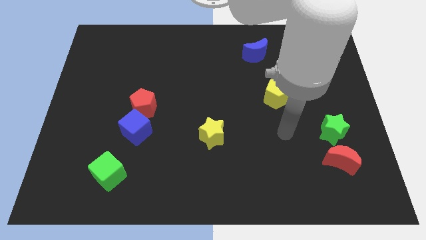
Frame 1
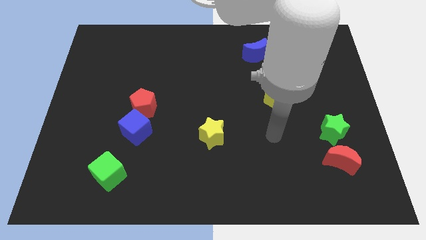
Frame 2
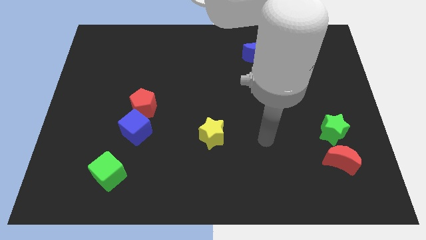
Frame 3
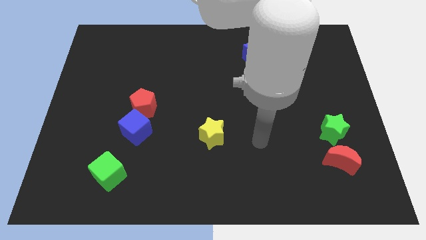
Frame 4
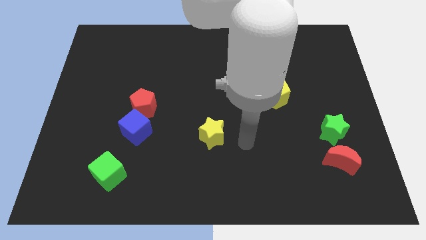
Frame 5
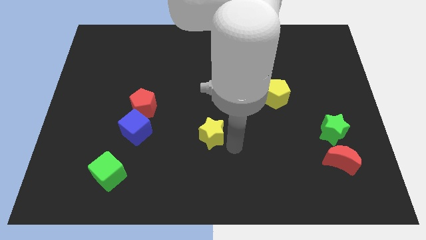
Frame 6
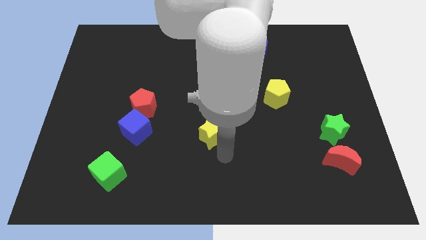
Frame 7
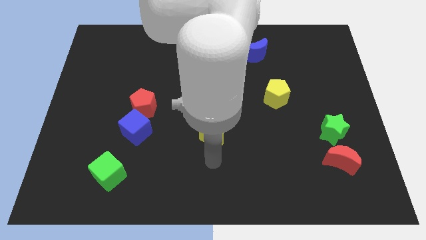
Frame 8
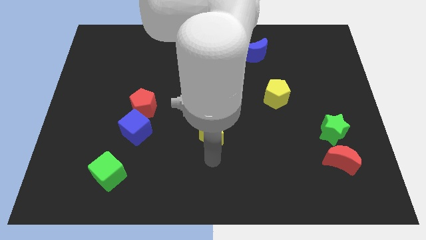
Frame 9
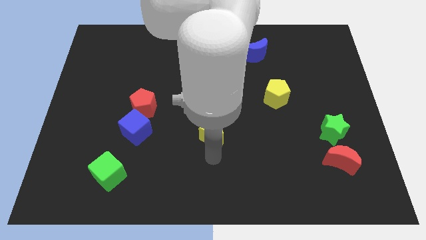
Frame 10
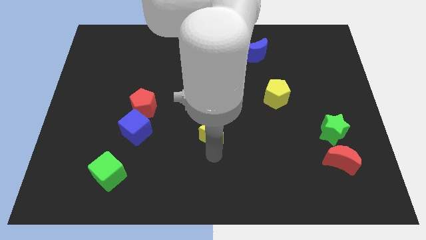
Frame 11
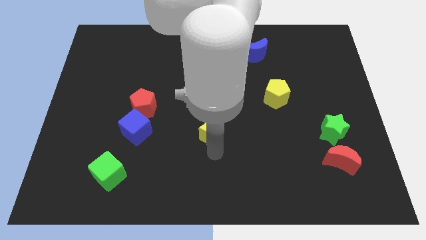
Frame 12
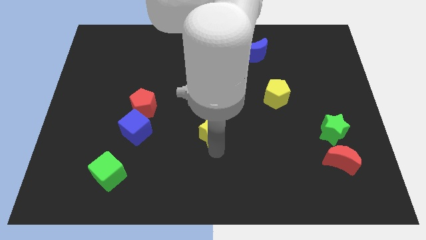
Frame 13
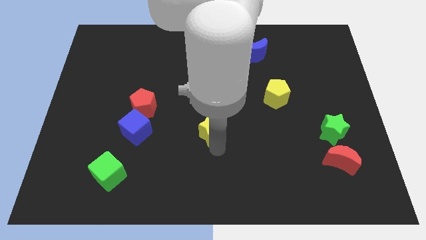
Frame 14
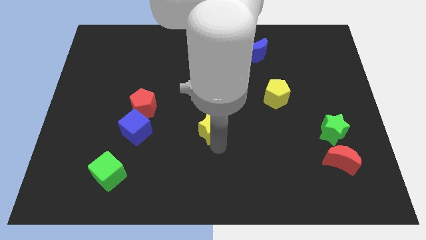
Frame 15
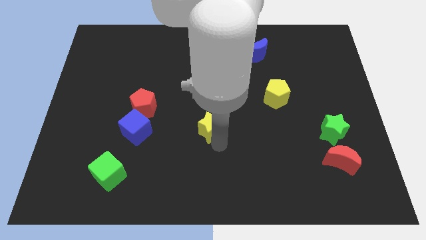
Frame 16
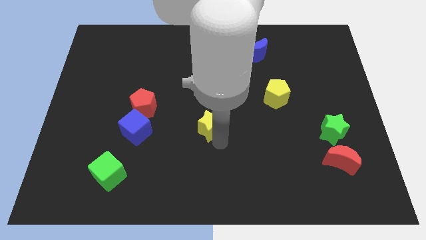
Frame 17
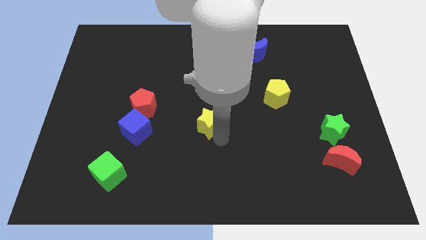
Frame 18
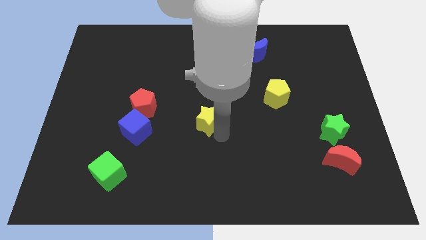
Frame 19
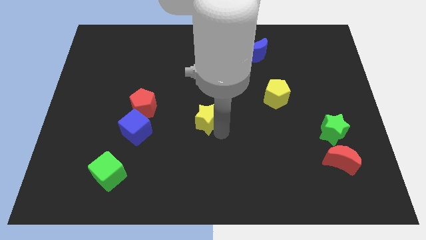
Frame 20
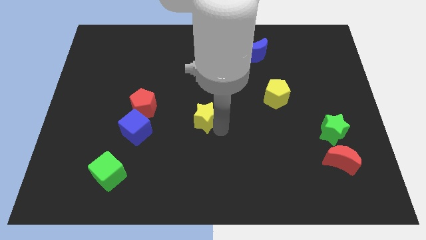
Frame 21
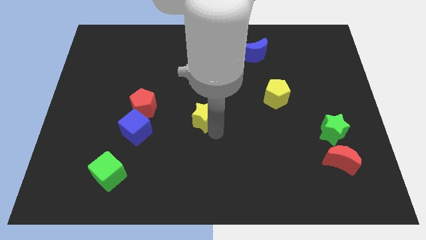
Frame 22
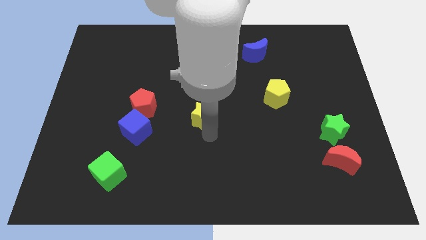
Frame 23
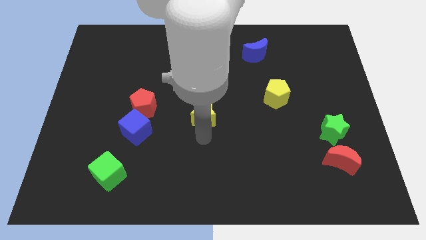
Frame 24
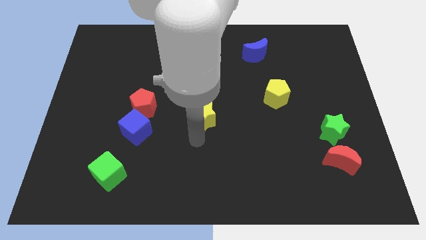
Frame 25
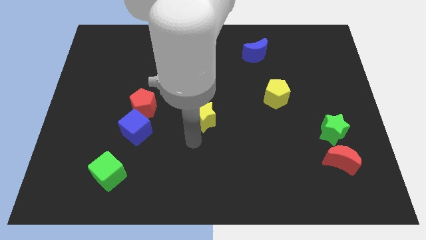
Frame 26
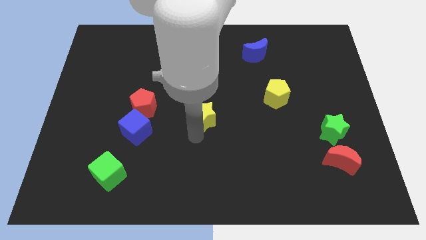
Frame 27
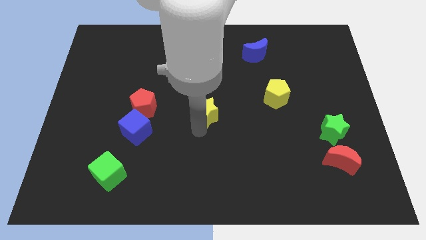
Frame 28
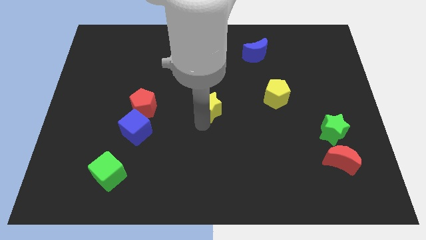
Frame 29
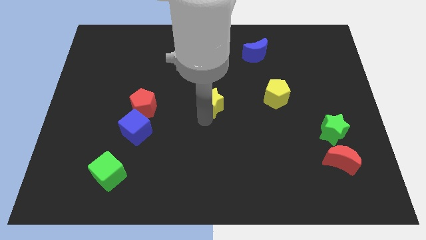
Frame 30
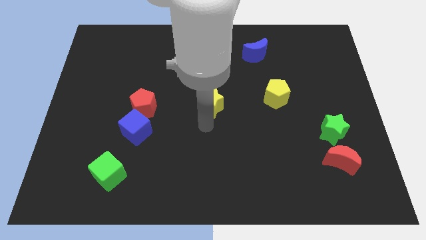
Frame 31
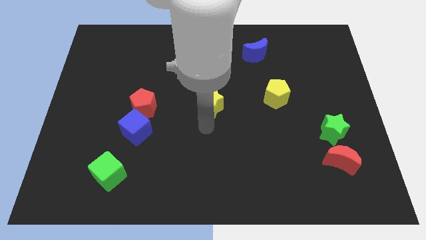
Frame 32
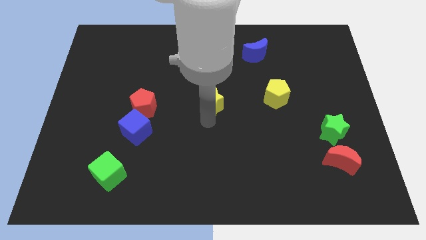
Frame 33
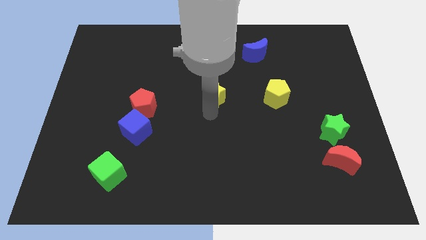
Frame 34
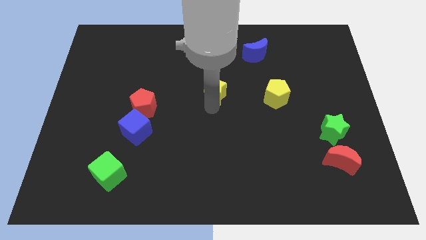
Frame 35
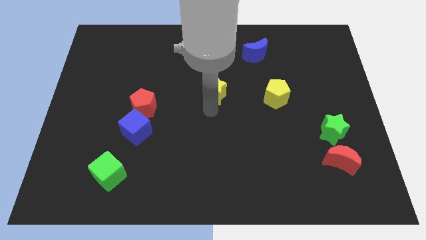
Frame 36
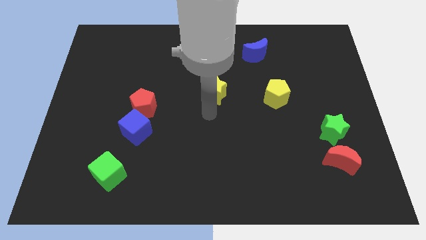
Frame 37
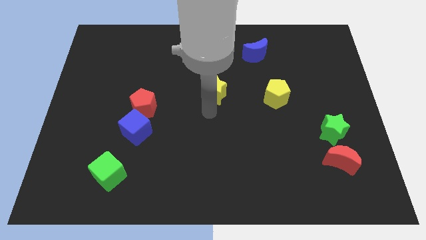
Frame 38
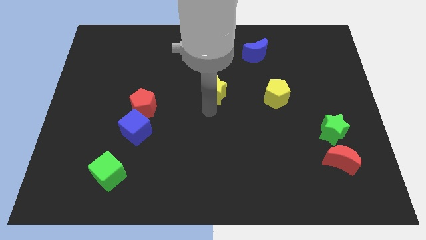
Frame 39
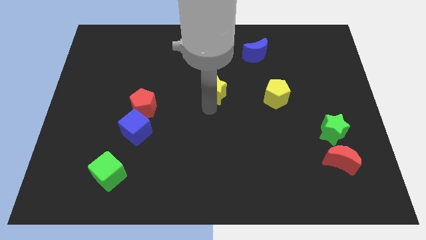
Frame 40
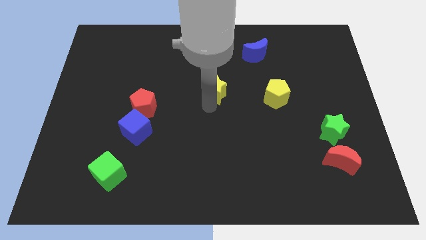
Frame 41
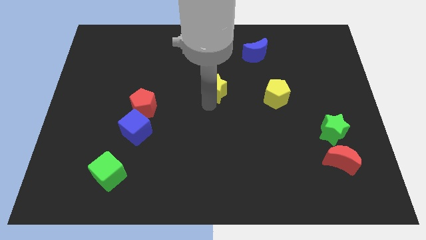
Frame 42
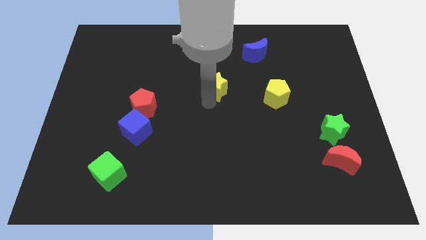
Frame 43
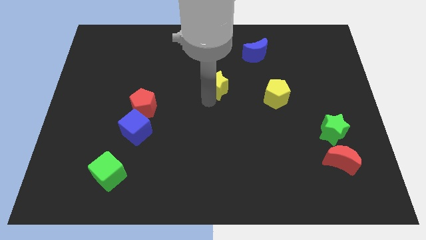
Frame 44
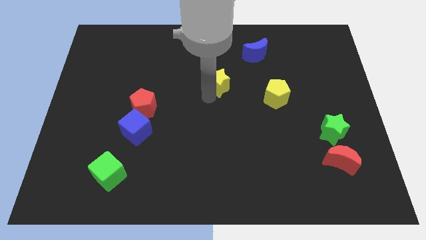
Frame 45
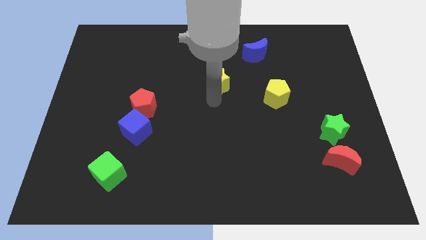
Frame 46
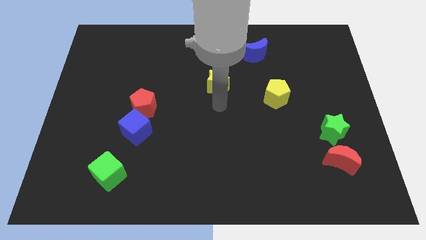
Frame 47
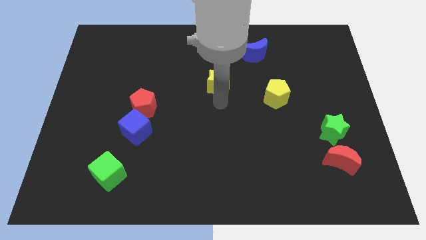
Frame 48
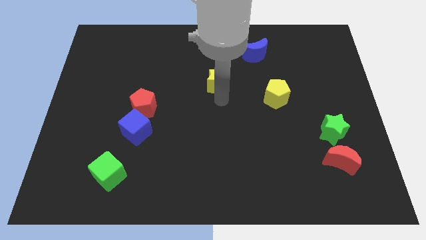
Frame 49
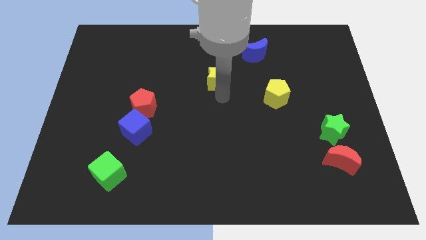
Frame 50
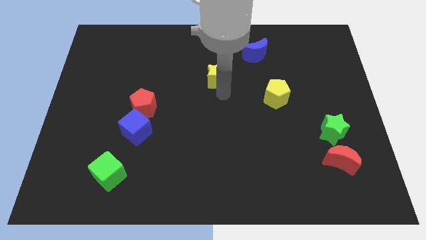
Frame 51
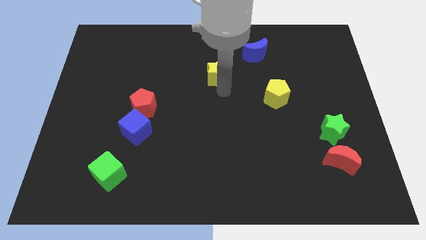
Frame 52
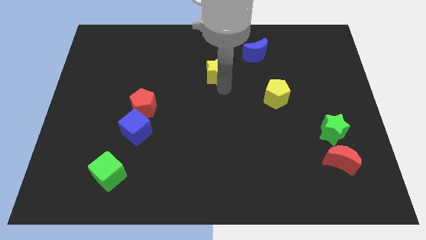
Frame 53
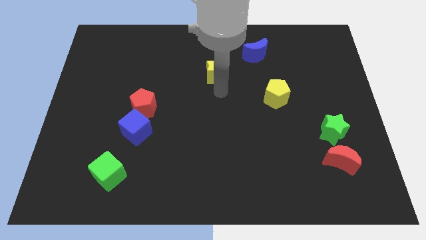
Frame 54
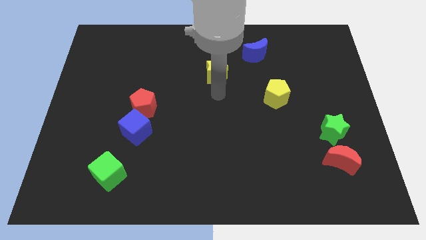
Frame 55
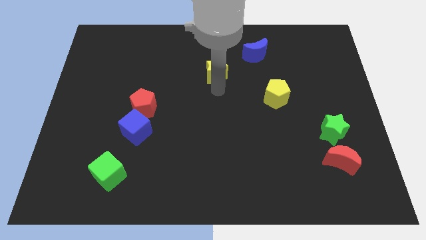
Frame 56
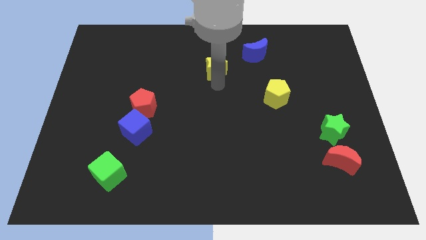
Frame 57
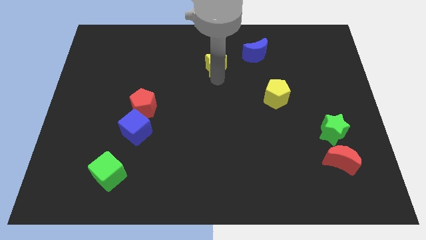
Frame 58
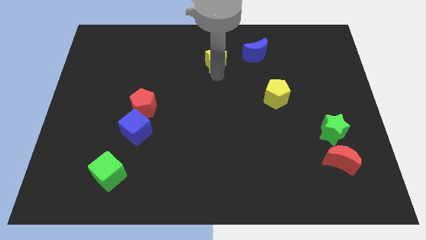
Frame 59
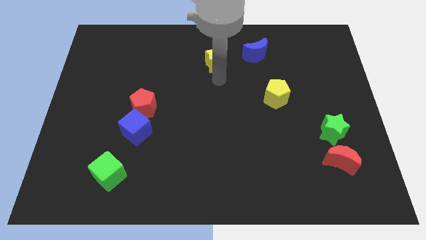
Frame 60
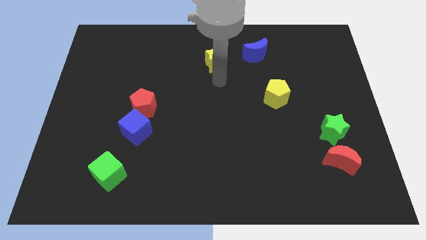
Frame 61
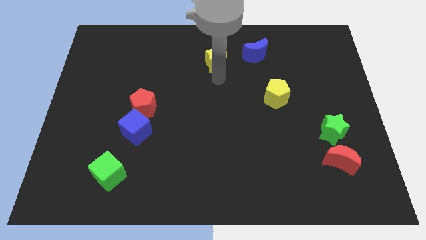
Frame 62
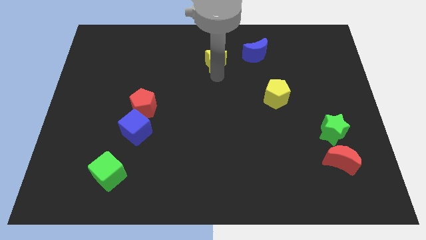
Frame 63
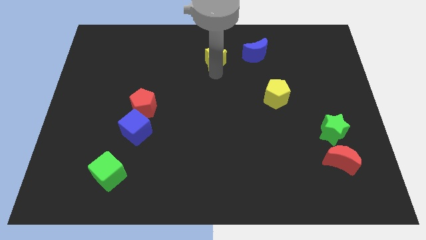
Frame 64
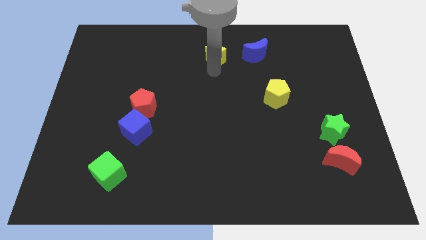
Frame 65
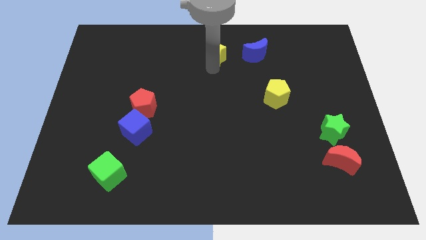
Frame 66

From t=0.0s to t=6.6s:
put the yellow star to the towards your base
